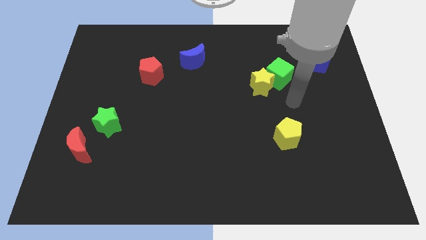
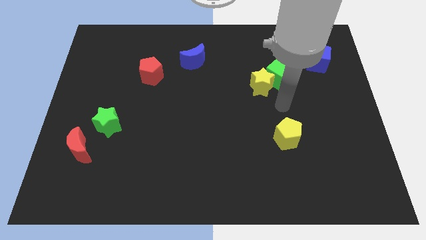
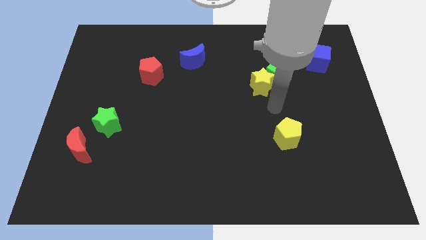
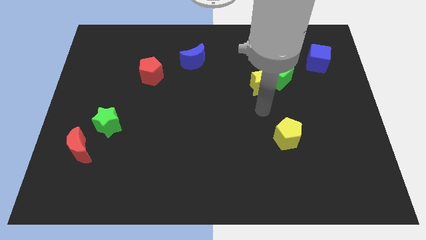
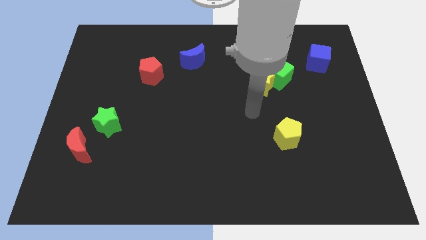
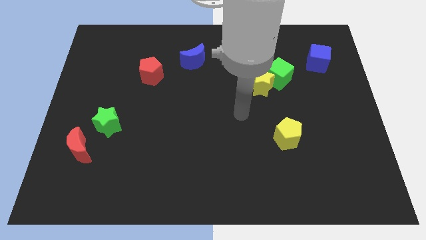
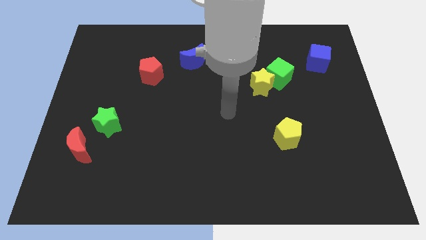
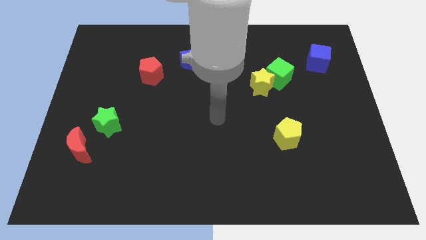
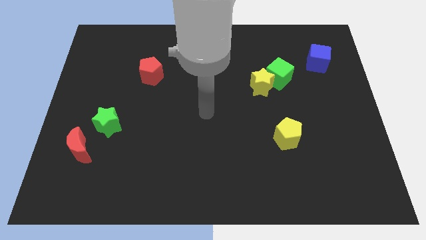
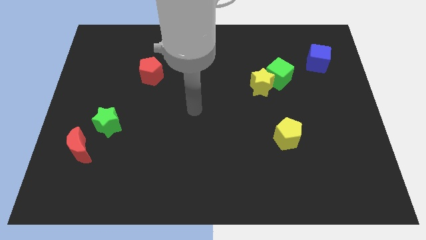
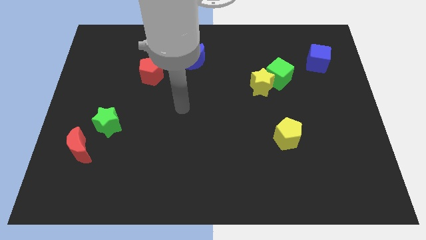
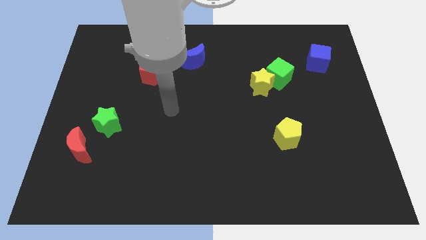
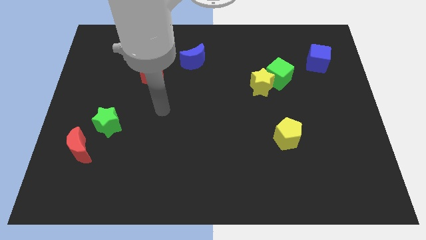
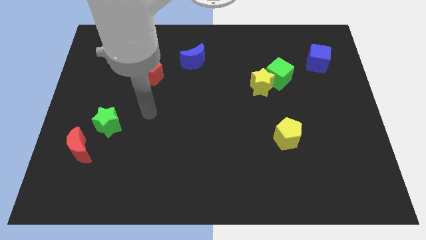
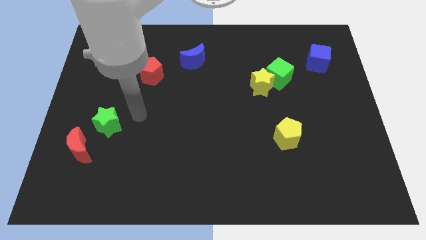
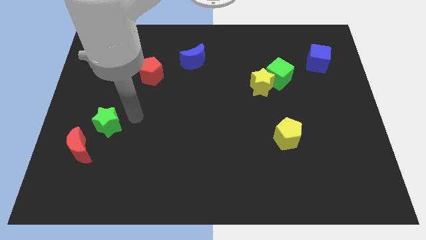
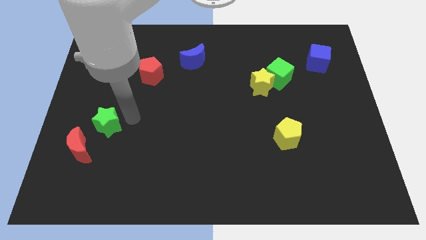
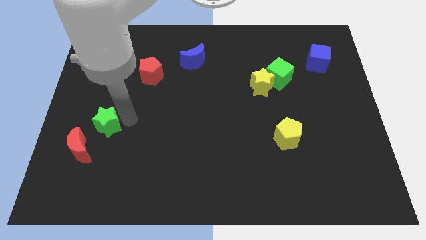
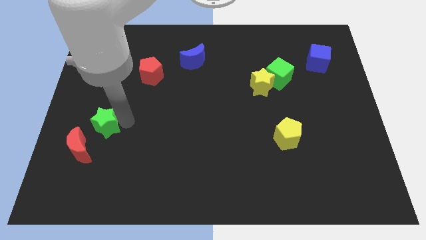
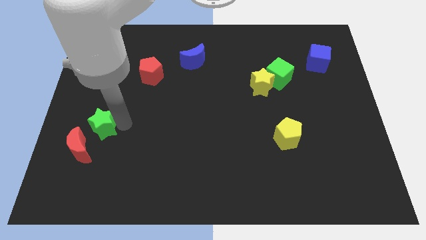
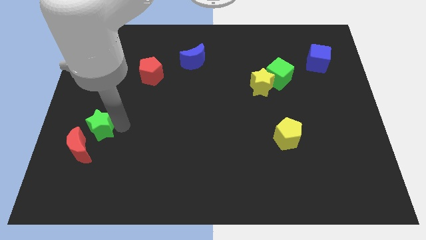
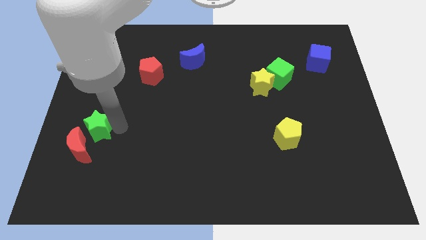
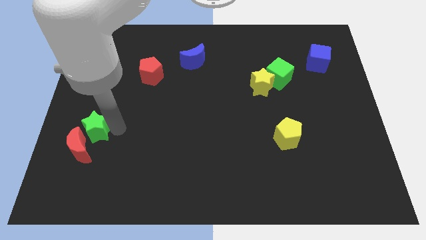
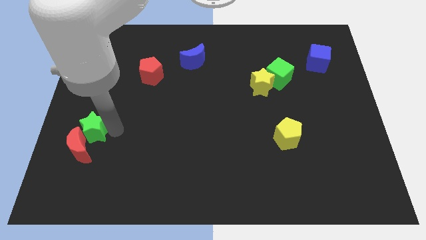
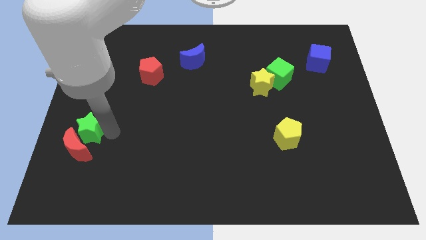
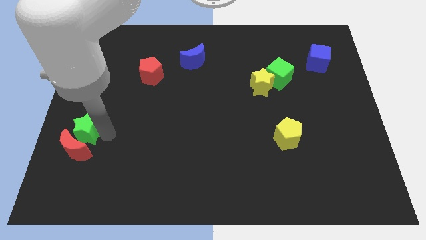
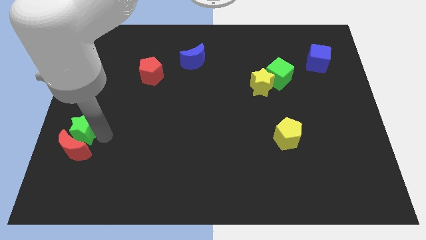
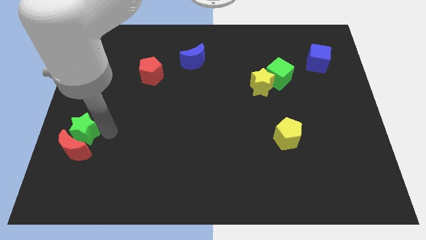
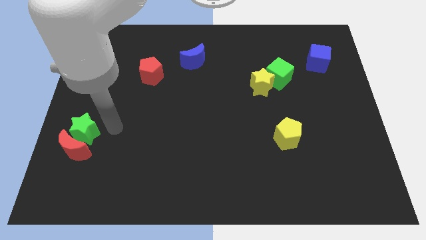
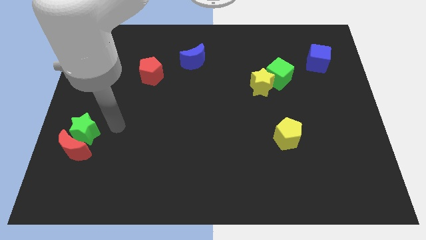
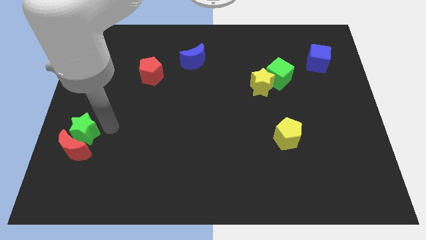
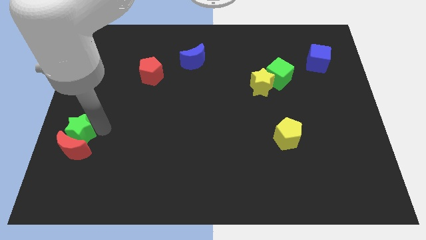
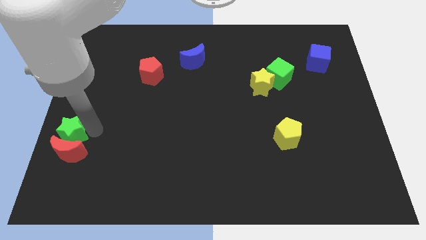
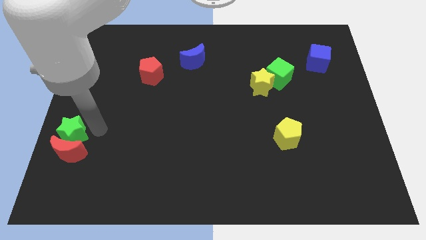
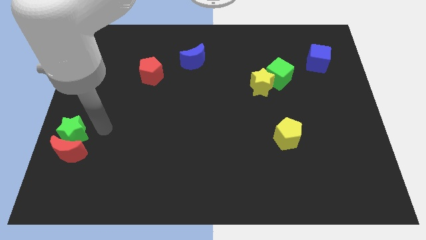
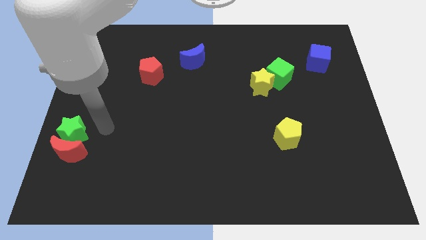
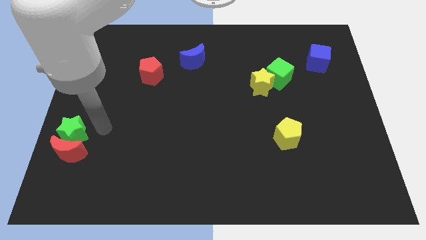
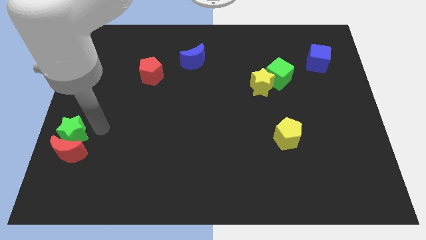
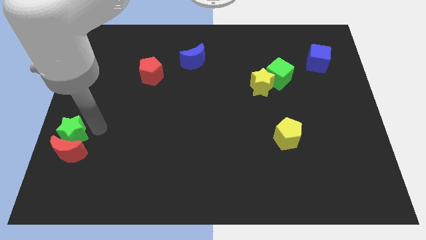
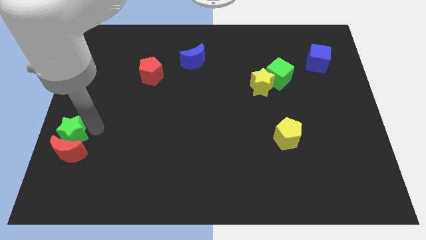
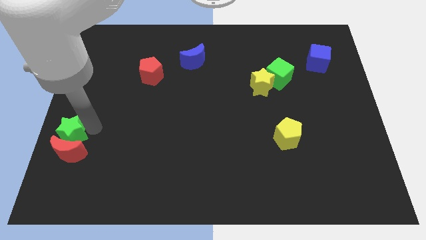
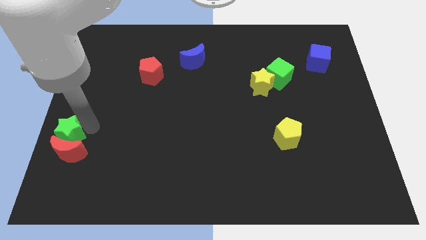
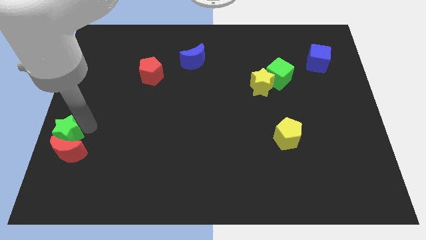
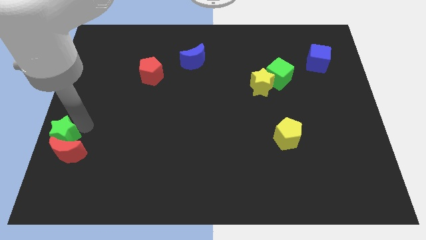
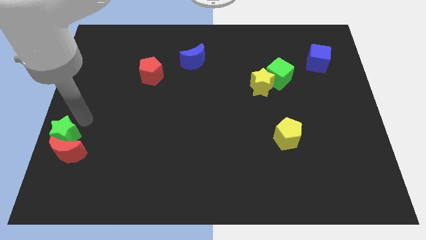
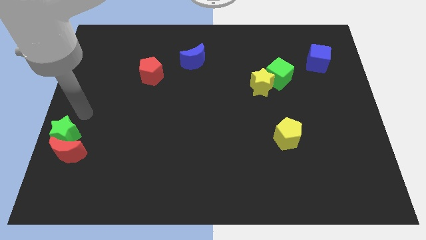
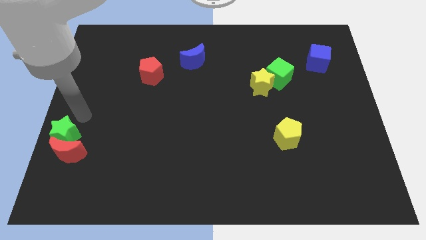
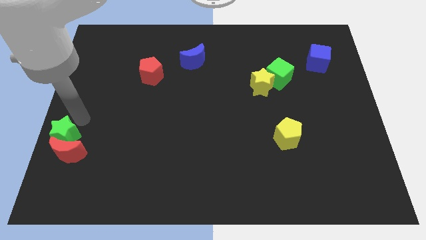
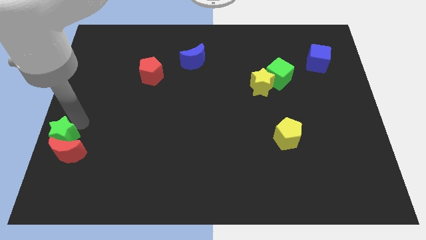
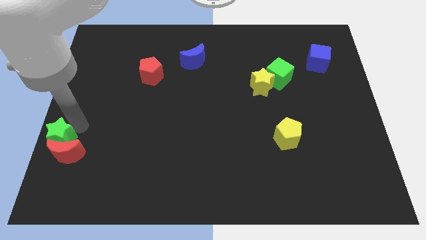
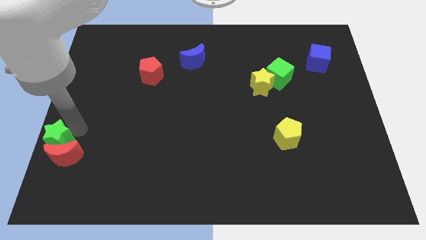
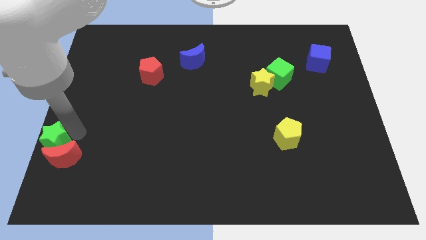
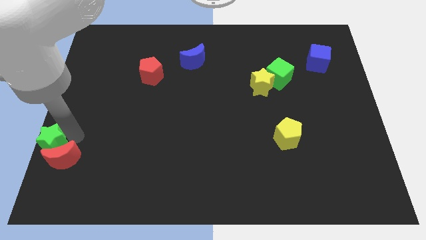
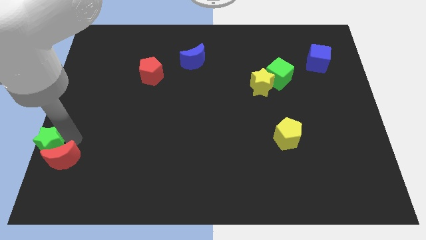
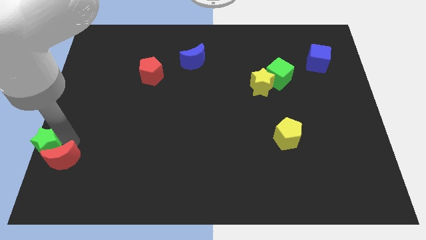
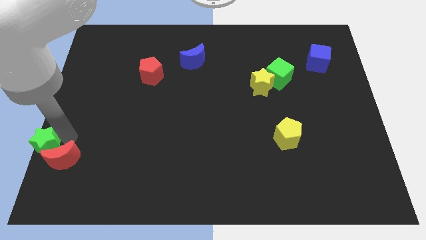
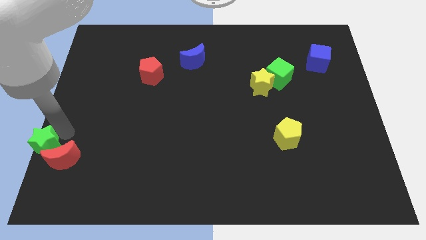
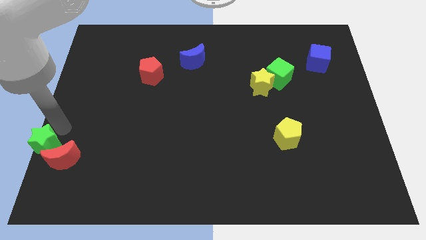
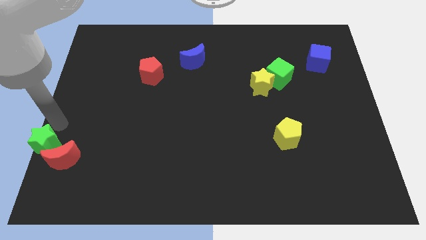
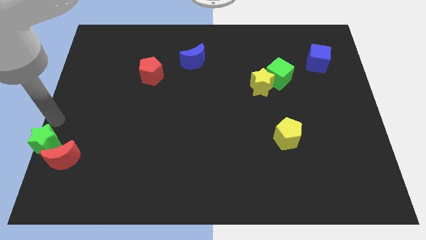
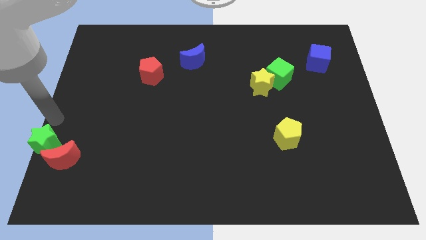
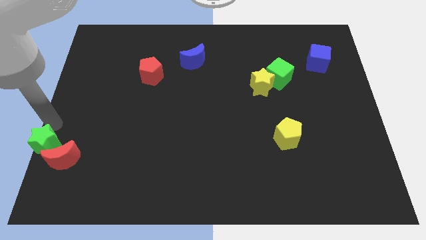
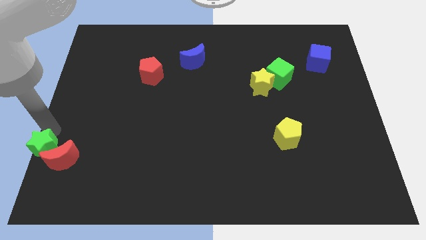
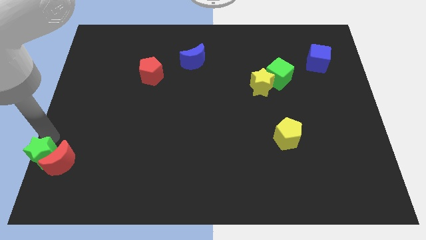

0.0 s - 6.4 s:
push the green star to the bottom left
